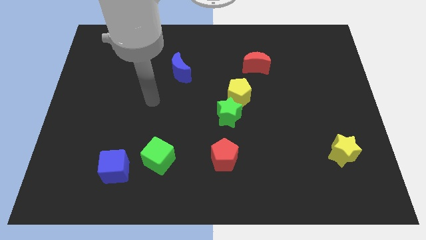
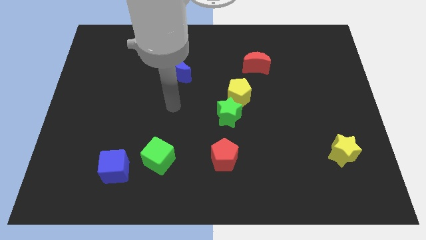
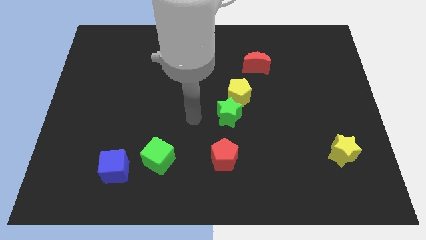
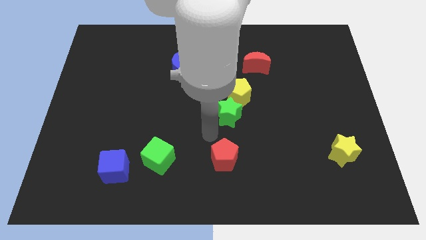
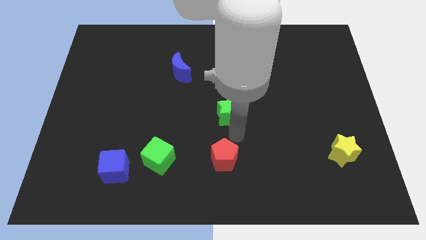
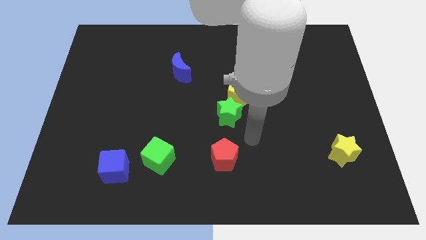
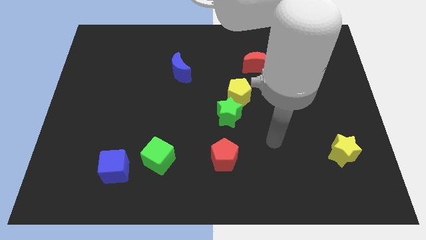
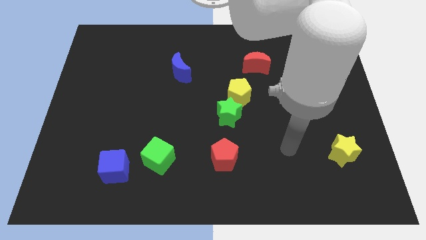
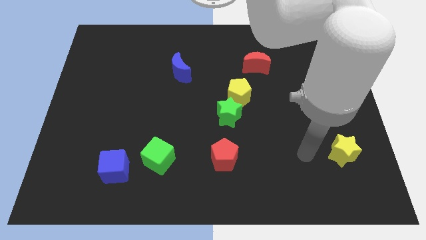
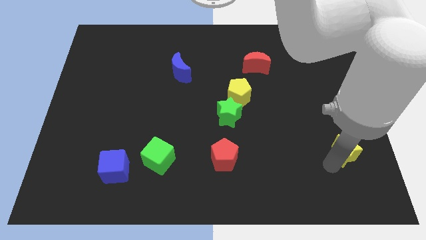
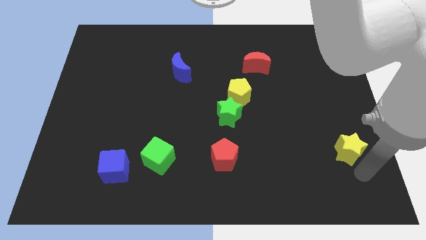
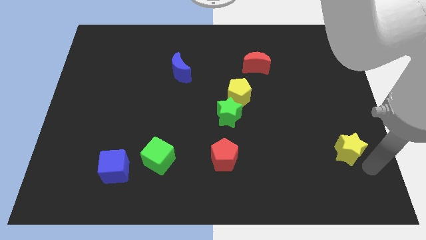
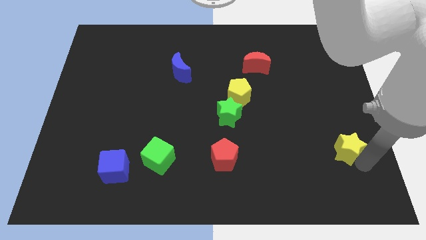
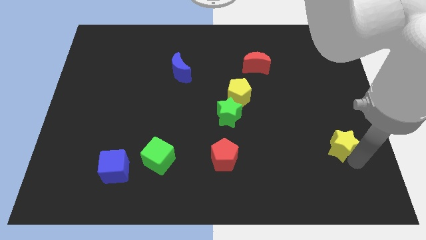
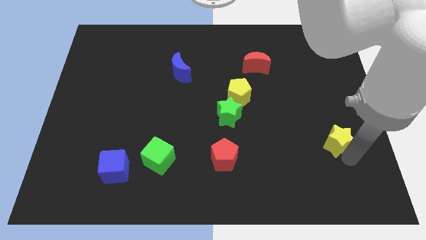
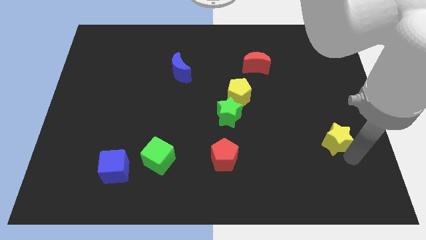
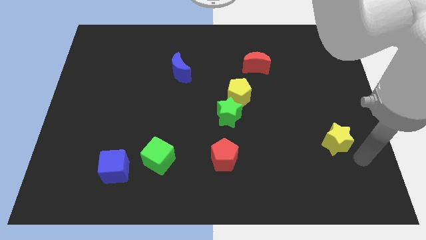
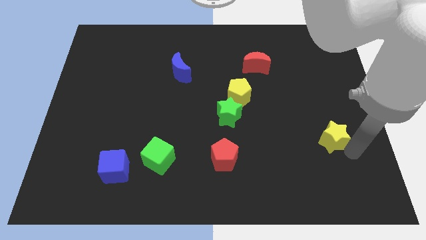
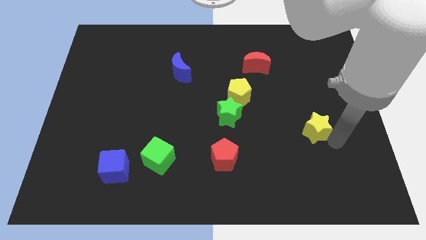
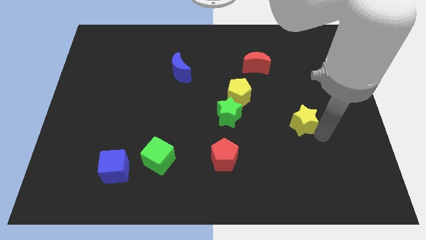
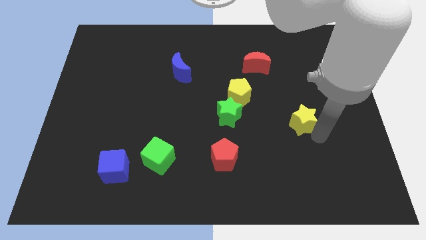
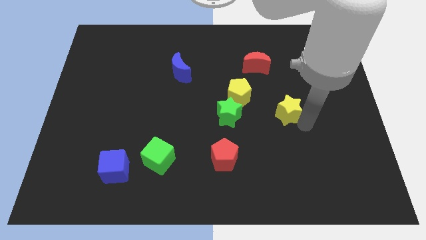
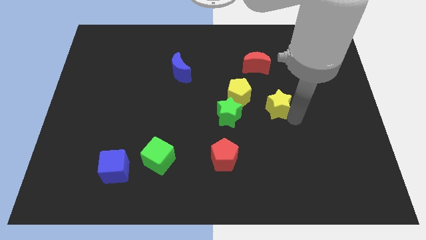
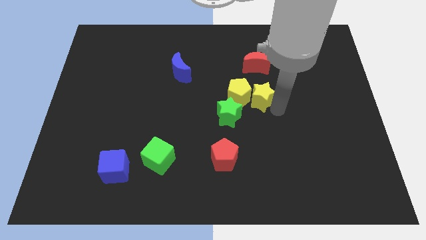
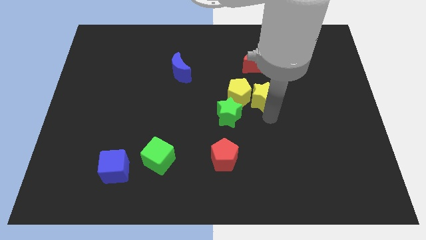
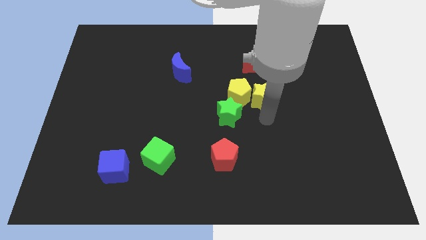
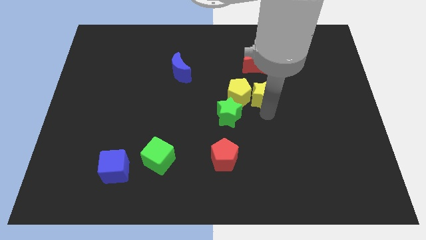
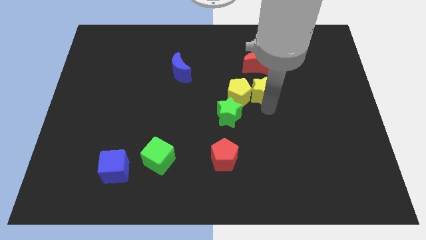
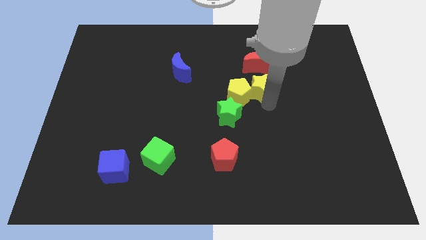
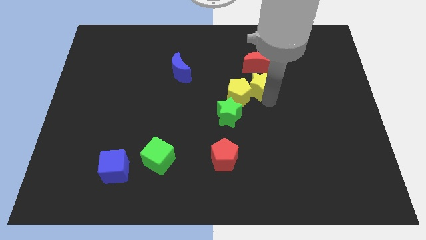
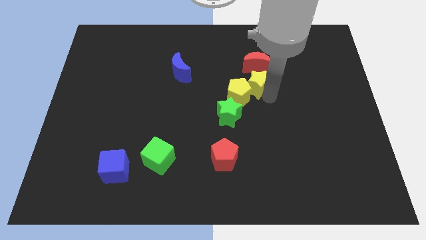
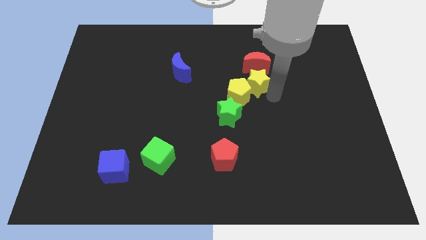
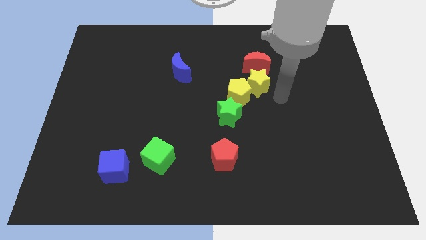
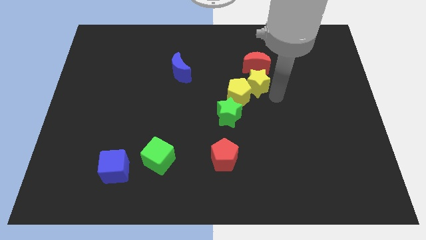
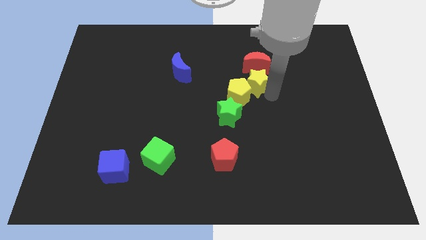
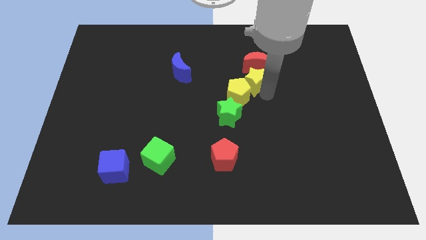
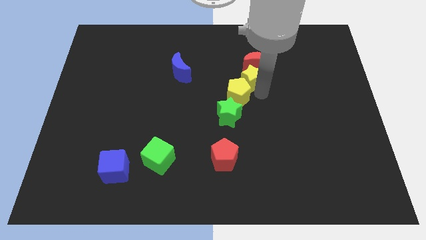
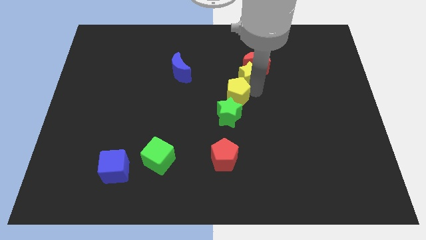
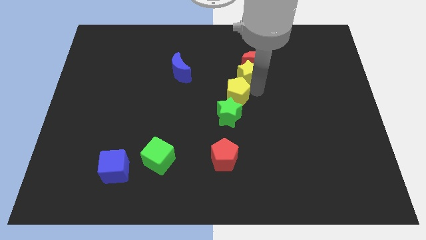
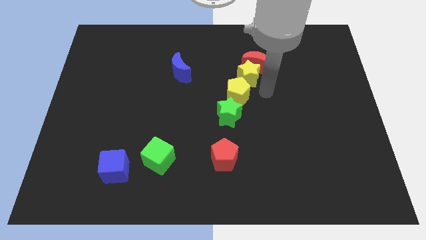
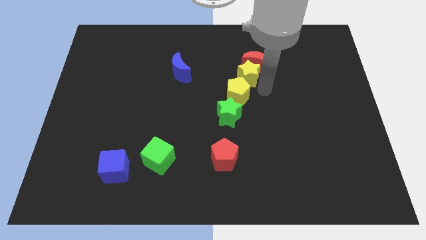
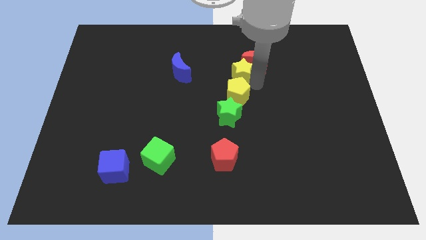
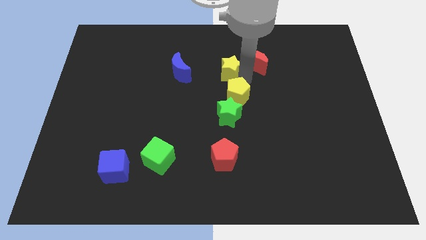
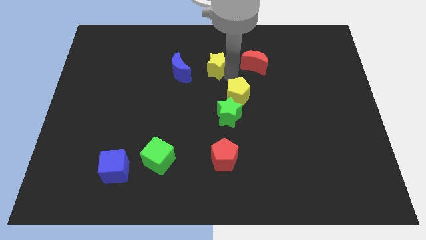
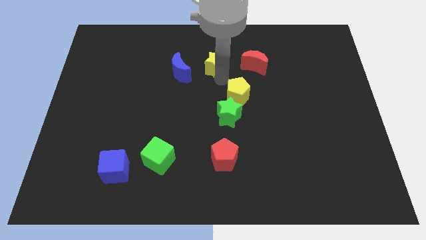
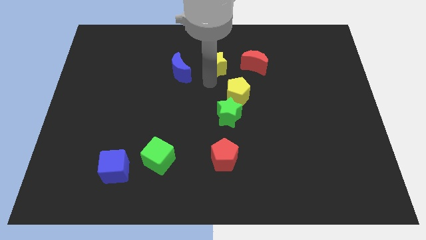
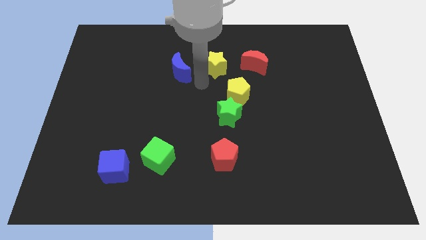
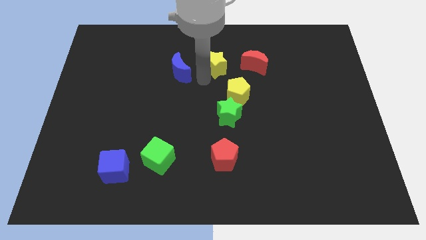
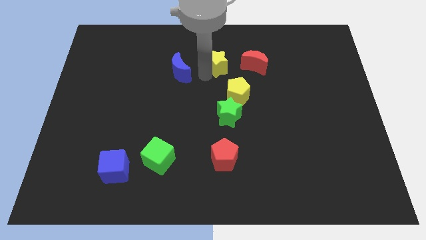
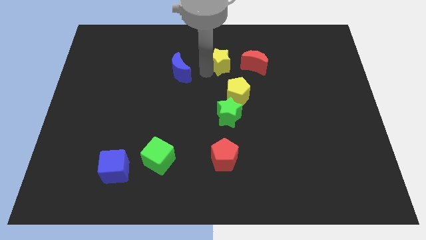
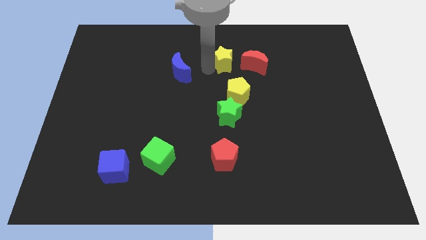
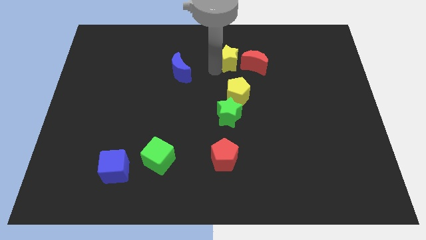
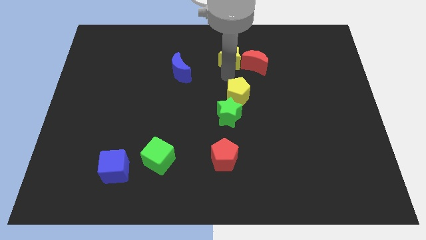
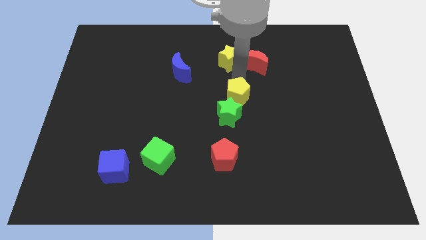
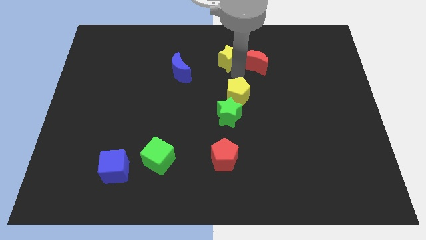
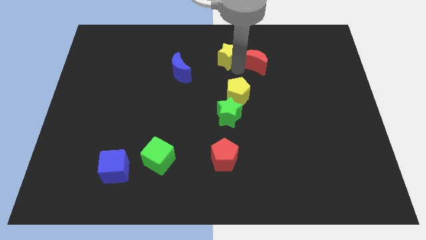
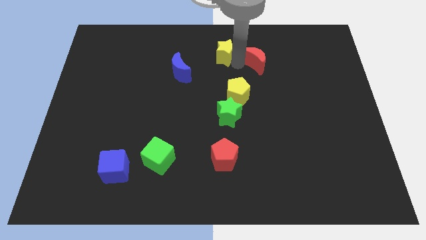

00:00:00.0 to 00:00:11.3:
push the yellow star to the top
